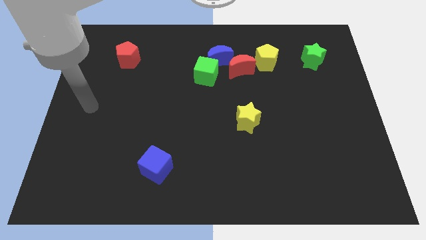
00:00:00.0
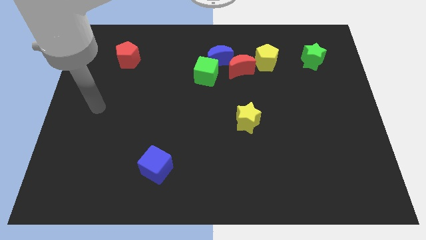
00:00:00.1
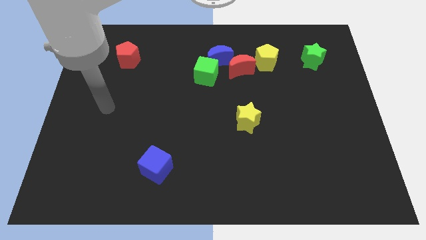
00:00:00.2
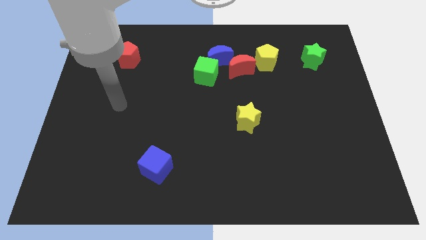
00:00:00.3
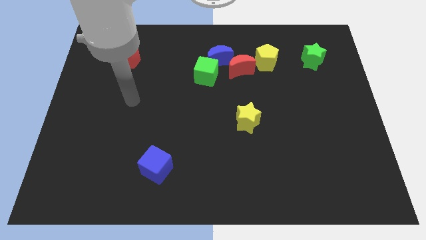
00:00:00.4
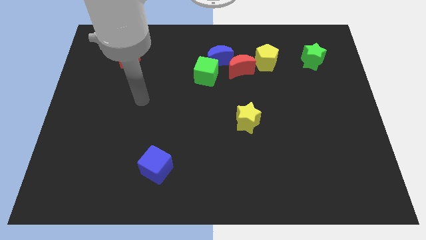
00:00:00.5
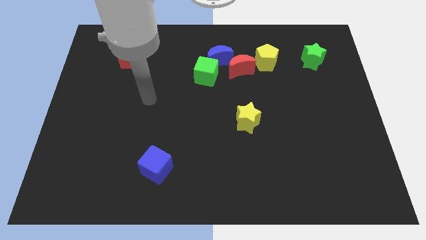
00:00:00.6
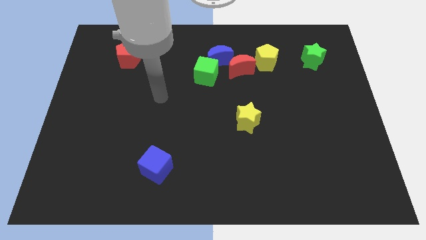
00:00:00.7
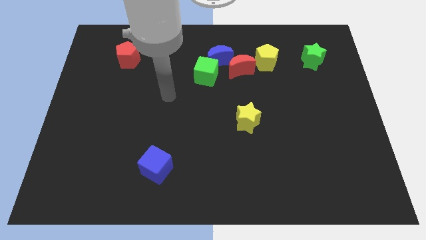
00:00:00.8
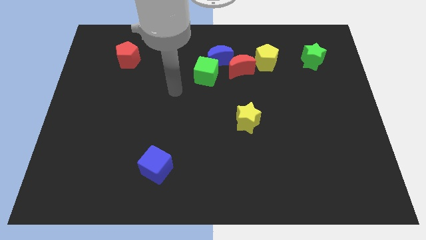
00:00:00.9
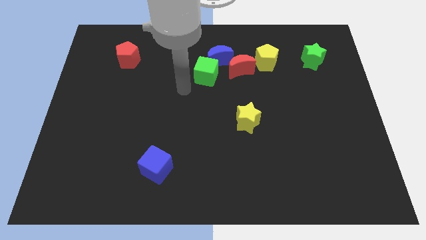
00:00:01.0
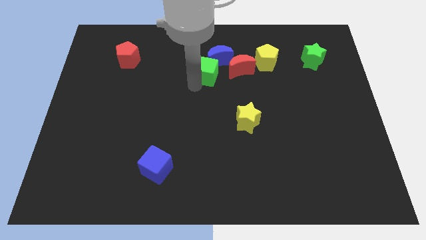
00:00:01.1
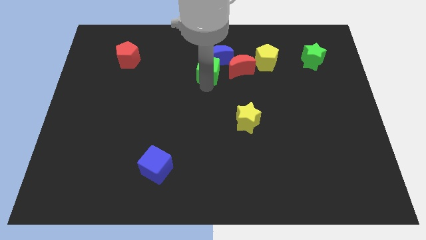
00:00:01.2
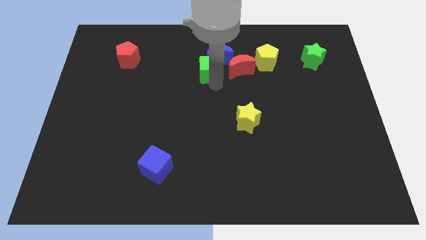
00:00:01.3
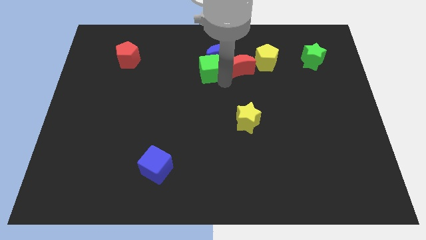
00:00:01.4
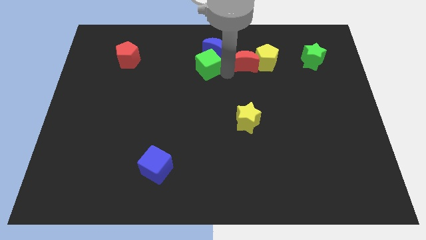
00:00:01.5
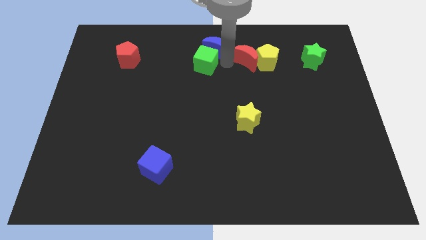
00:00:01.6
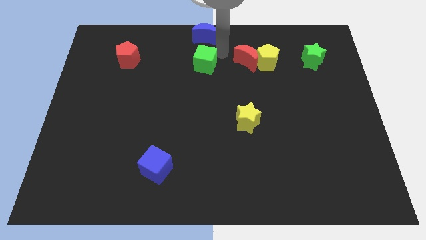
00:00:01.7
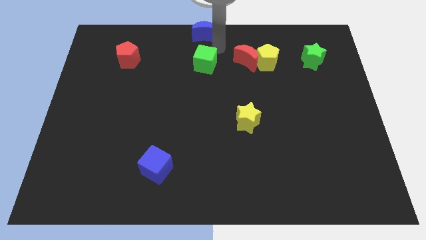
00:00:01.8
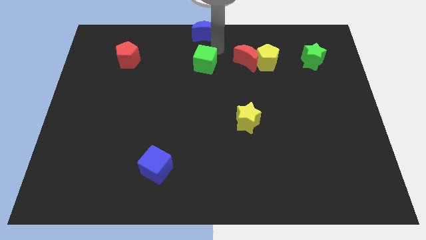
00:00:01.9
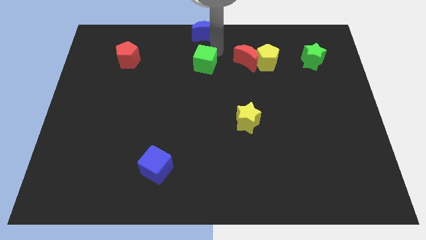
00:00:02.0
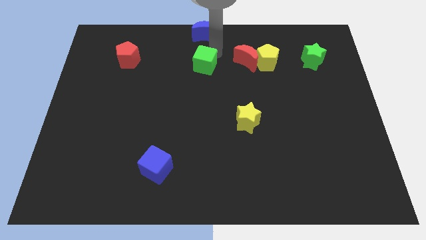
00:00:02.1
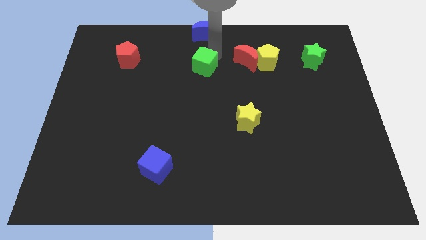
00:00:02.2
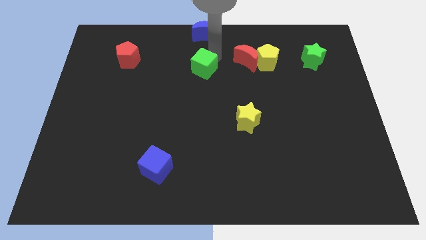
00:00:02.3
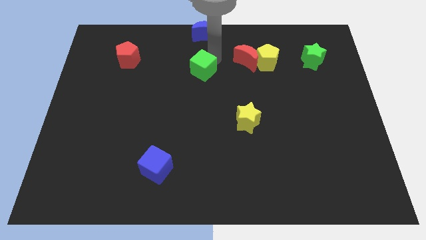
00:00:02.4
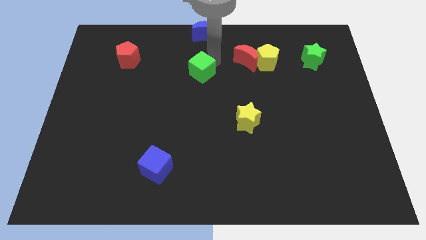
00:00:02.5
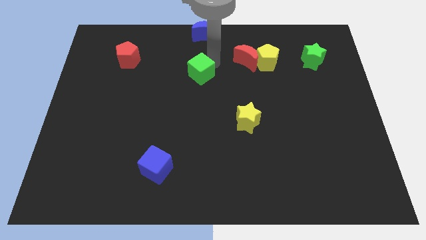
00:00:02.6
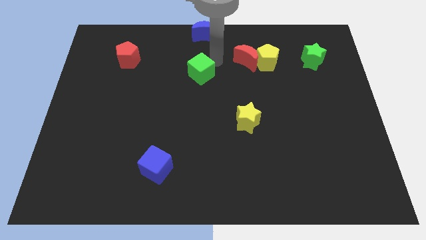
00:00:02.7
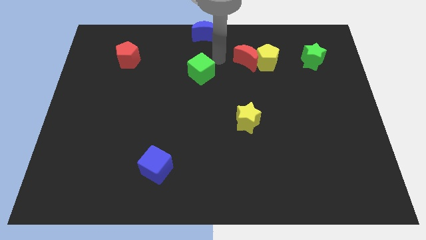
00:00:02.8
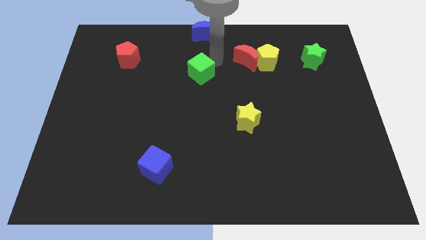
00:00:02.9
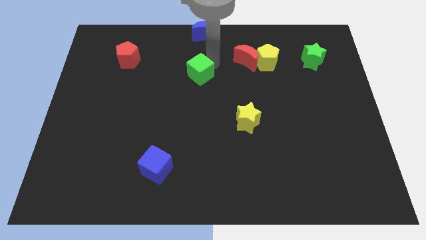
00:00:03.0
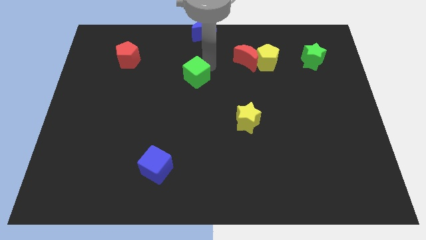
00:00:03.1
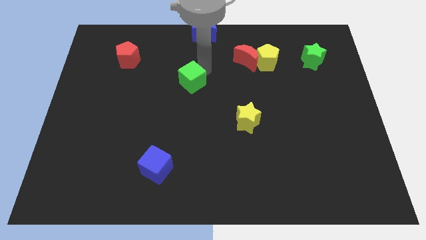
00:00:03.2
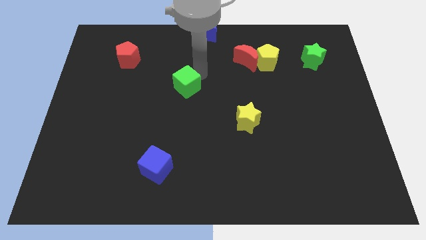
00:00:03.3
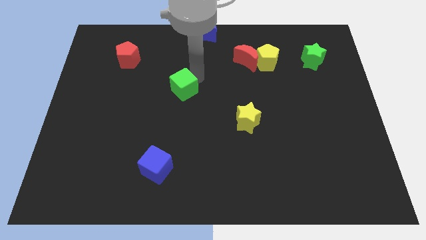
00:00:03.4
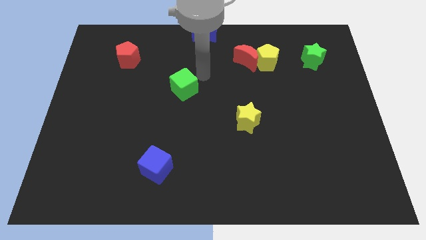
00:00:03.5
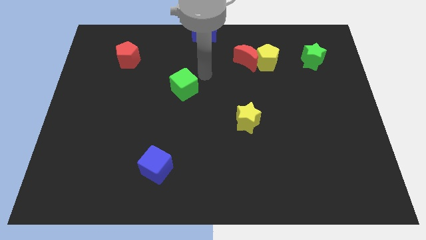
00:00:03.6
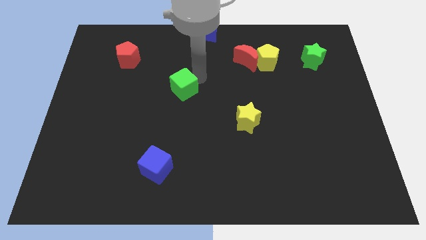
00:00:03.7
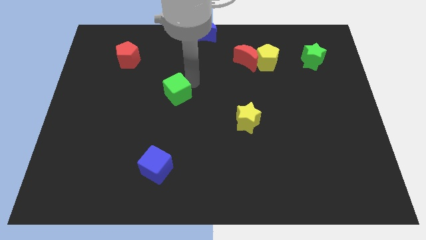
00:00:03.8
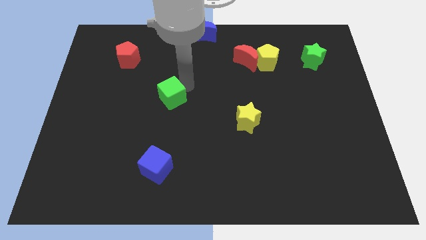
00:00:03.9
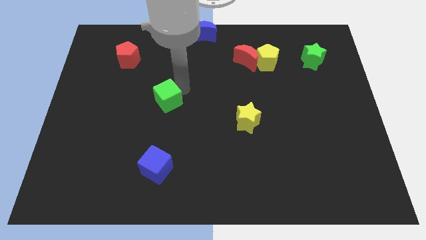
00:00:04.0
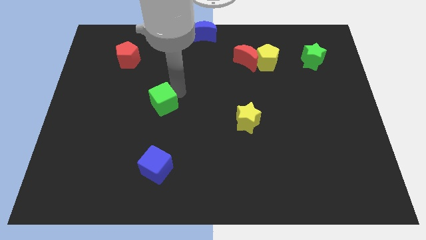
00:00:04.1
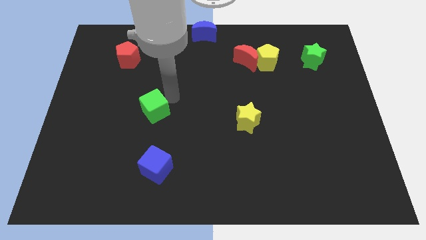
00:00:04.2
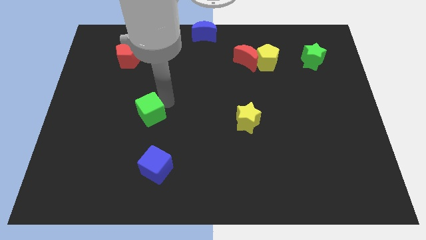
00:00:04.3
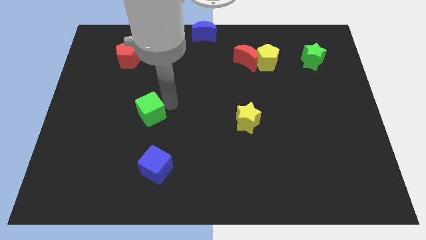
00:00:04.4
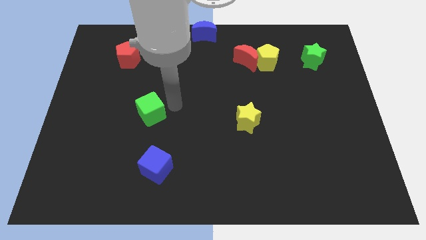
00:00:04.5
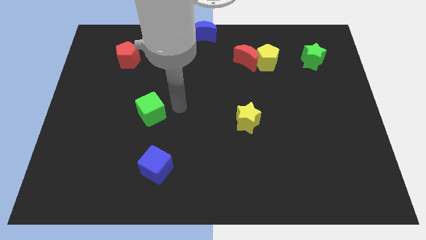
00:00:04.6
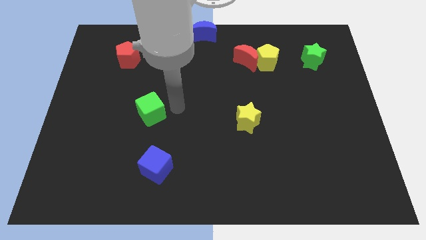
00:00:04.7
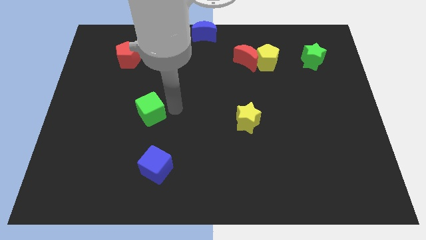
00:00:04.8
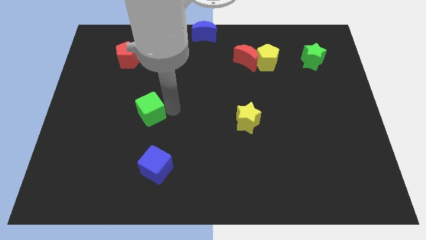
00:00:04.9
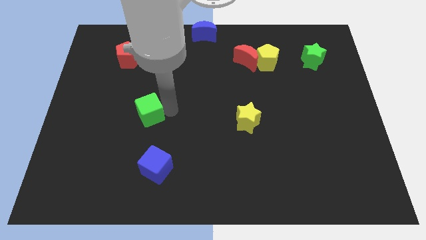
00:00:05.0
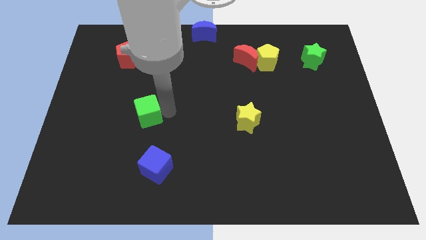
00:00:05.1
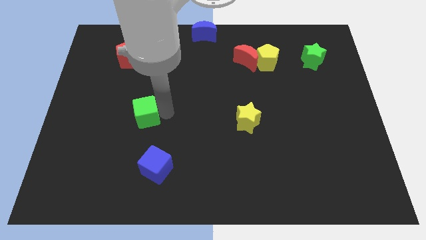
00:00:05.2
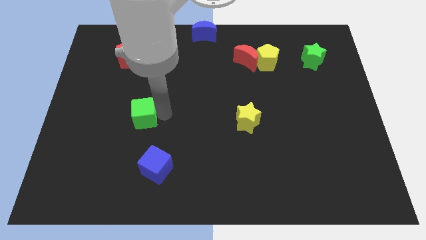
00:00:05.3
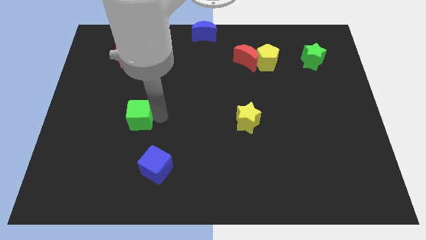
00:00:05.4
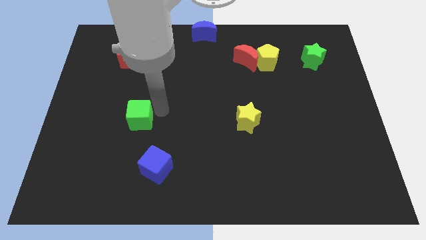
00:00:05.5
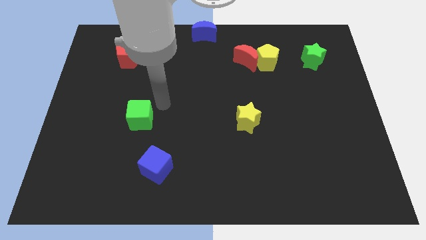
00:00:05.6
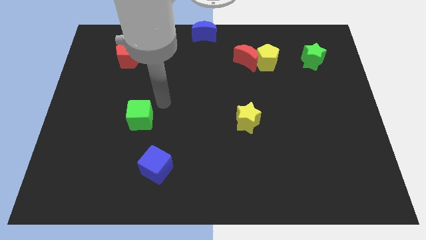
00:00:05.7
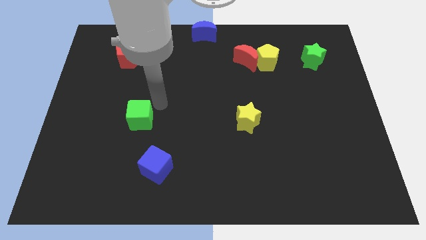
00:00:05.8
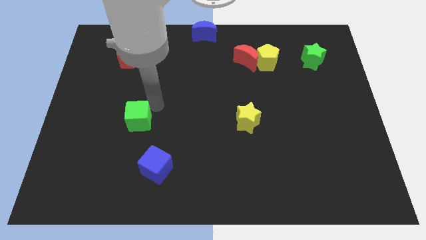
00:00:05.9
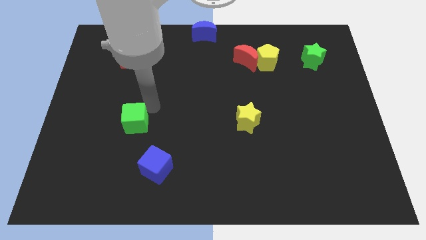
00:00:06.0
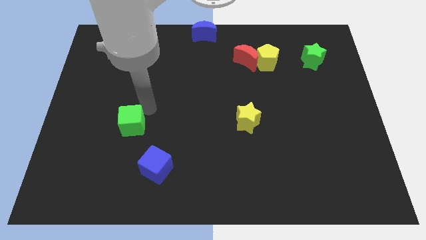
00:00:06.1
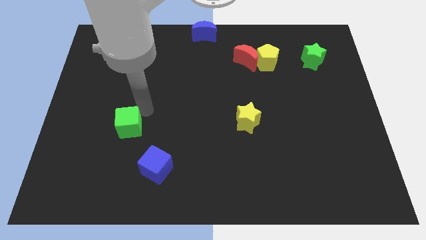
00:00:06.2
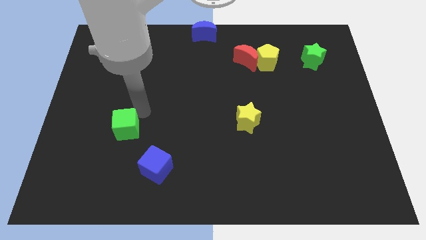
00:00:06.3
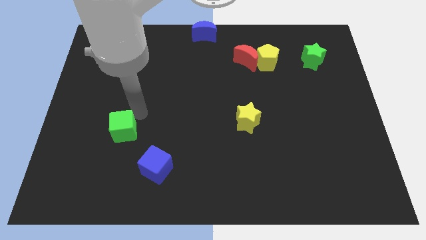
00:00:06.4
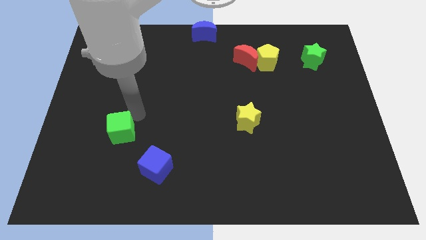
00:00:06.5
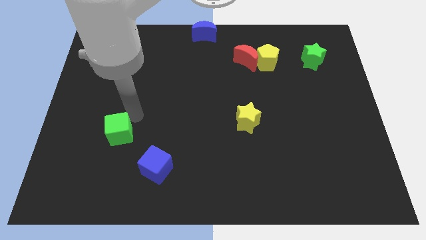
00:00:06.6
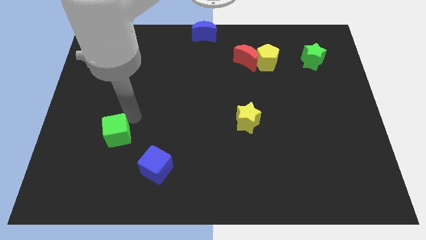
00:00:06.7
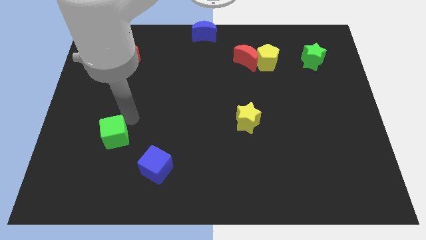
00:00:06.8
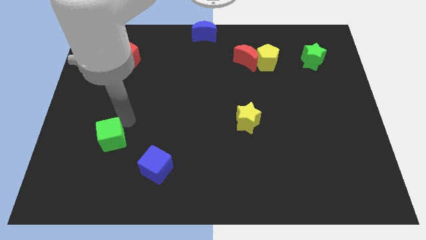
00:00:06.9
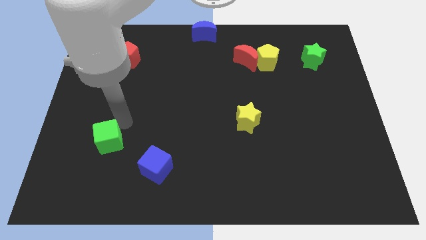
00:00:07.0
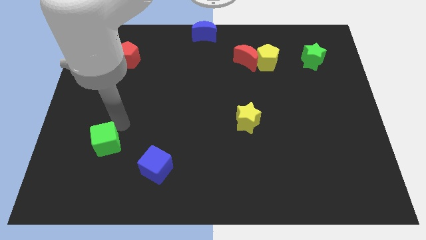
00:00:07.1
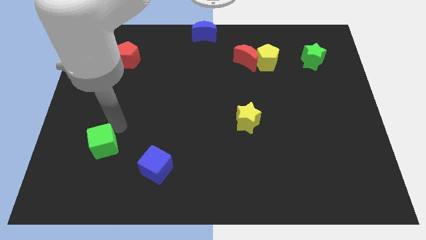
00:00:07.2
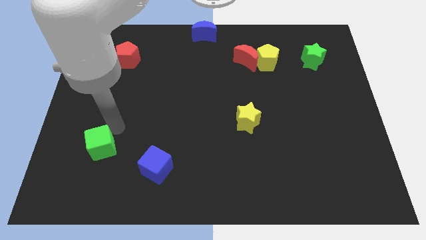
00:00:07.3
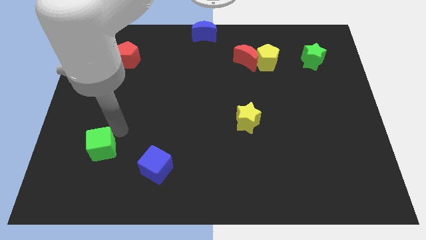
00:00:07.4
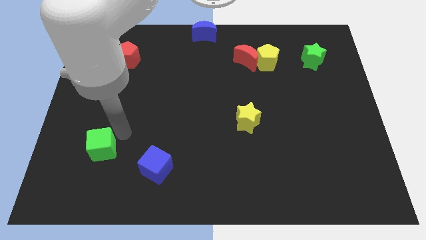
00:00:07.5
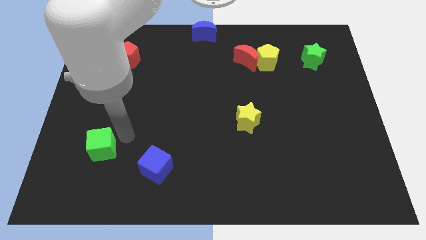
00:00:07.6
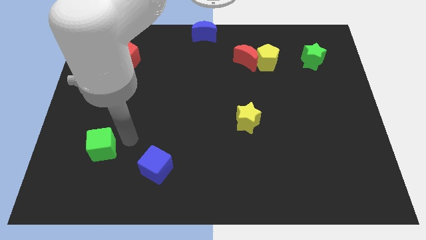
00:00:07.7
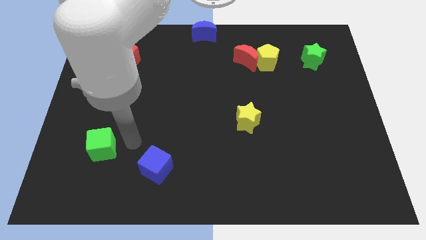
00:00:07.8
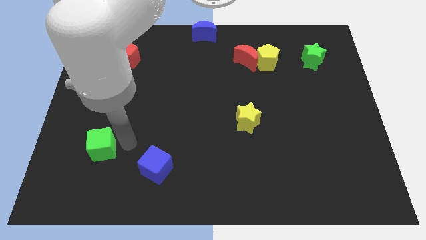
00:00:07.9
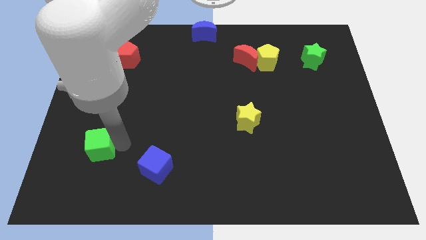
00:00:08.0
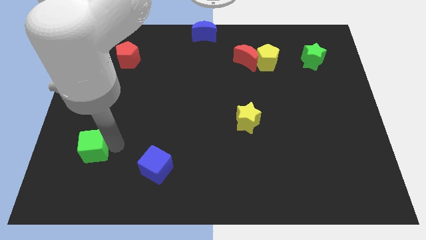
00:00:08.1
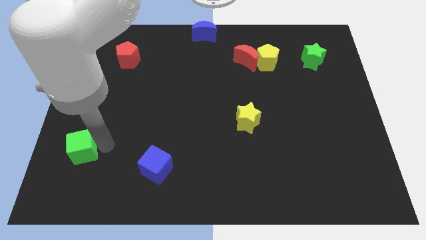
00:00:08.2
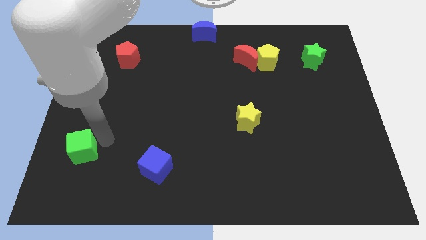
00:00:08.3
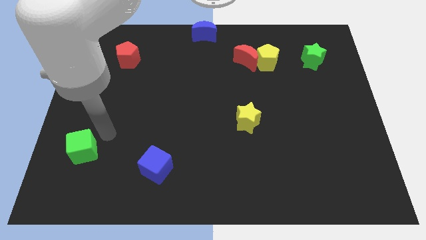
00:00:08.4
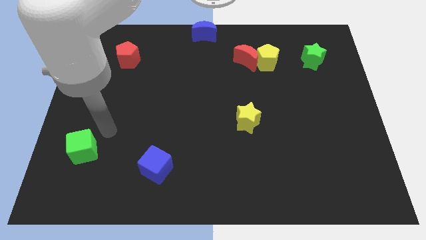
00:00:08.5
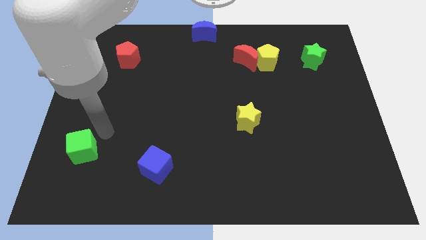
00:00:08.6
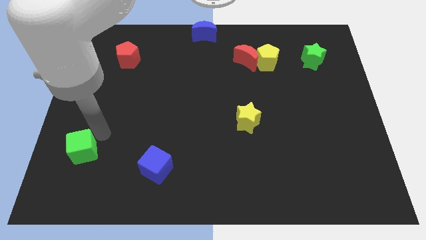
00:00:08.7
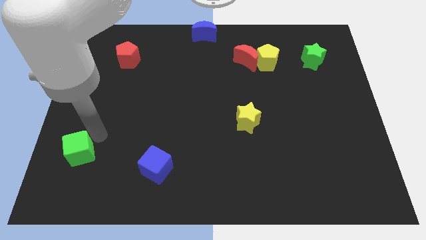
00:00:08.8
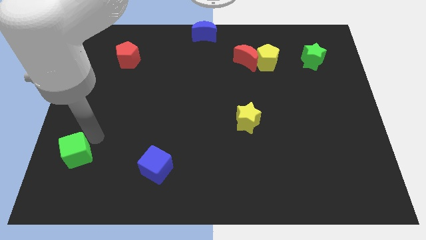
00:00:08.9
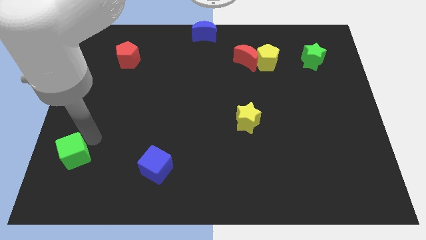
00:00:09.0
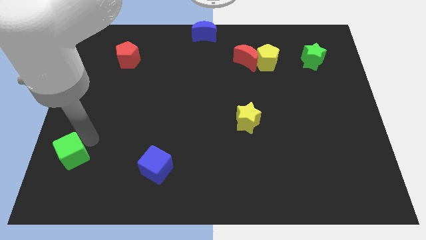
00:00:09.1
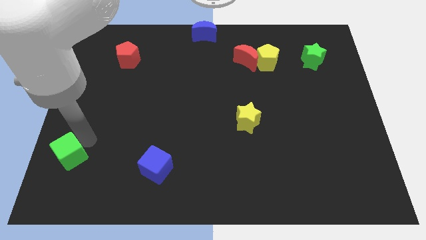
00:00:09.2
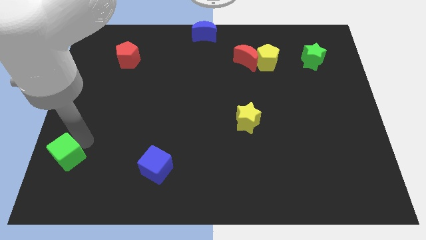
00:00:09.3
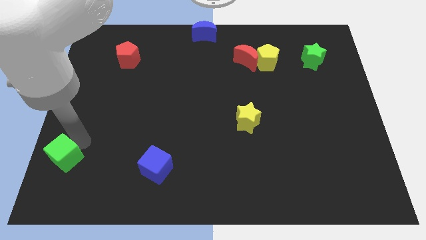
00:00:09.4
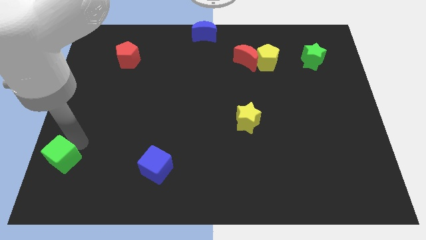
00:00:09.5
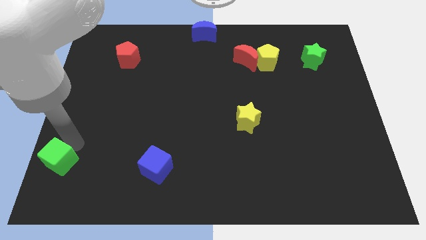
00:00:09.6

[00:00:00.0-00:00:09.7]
push the green cube to the lower left corner
